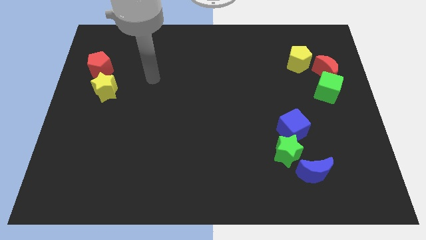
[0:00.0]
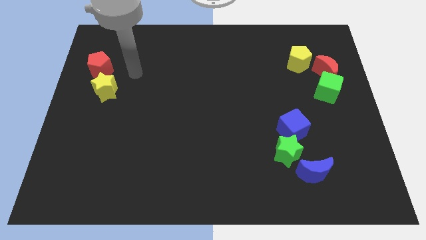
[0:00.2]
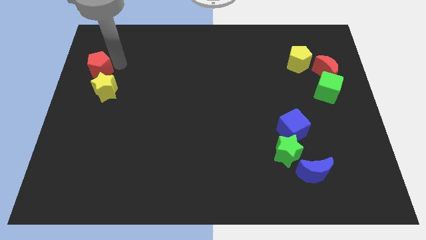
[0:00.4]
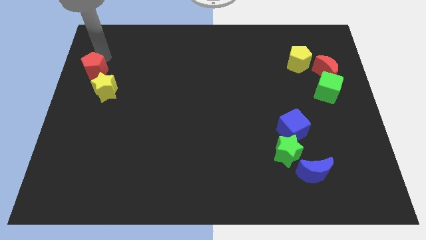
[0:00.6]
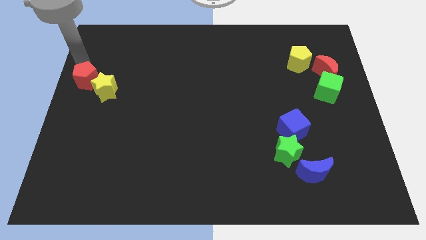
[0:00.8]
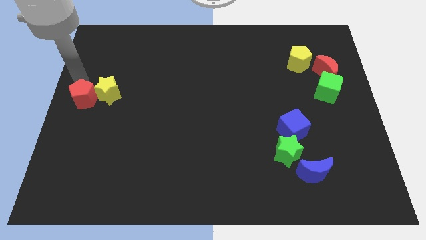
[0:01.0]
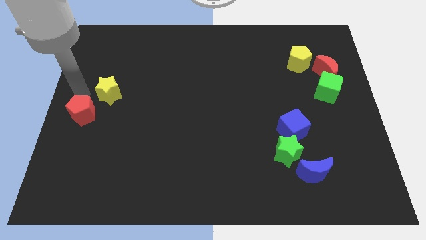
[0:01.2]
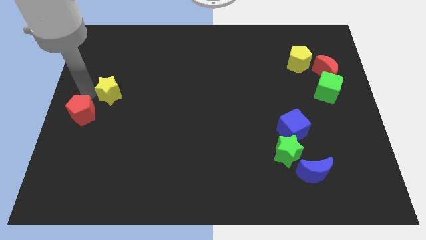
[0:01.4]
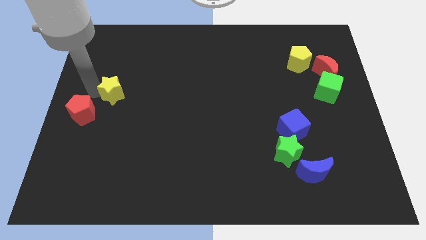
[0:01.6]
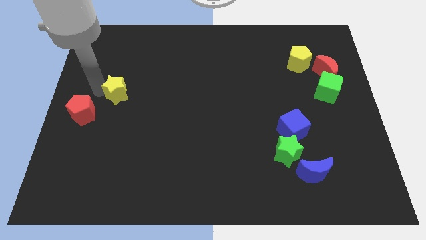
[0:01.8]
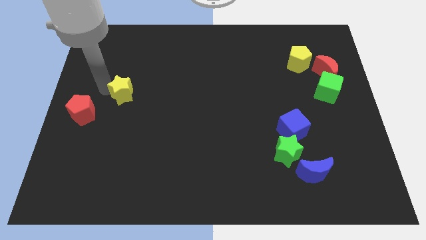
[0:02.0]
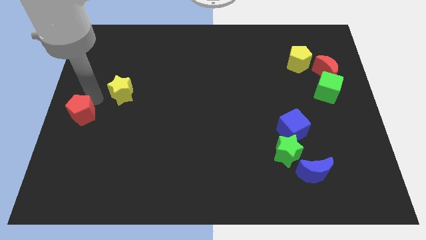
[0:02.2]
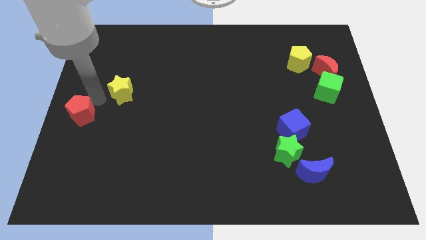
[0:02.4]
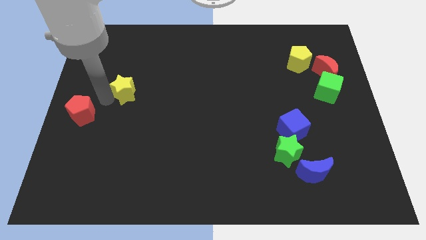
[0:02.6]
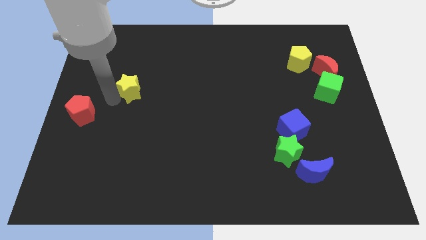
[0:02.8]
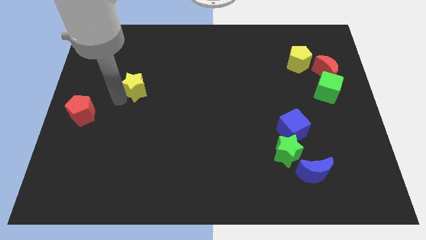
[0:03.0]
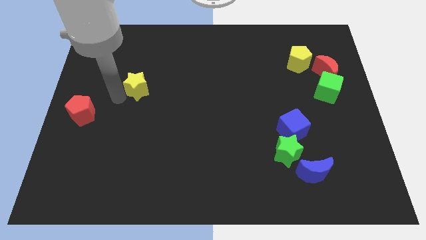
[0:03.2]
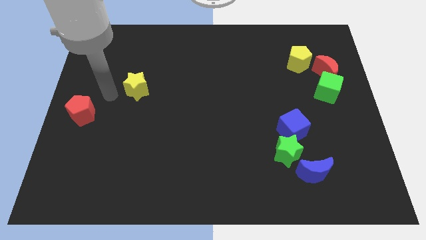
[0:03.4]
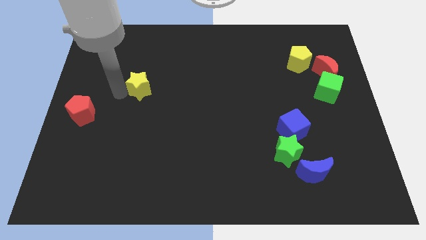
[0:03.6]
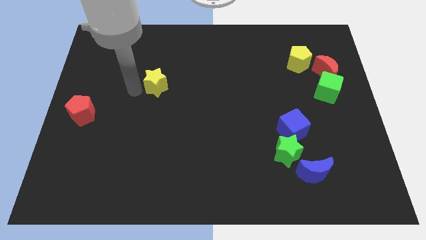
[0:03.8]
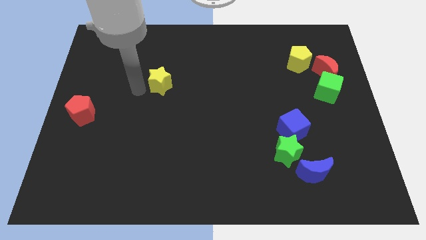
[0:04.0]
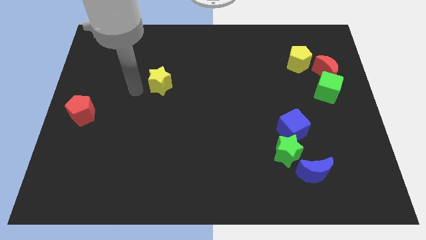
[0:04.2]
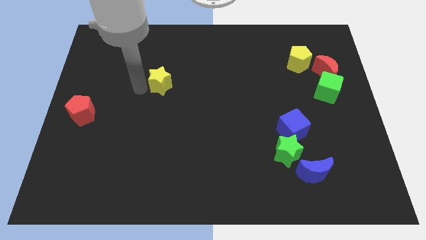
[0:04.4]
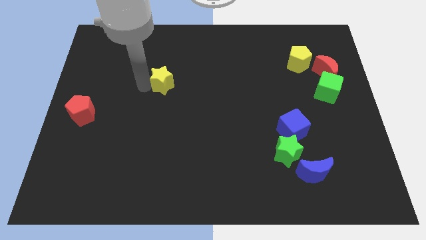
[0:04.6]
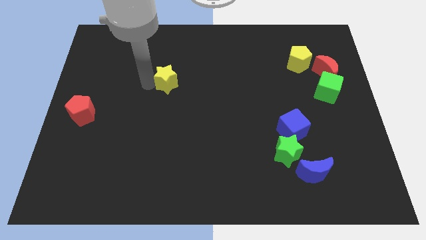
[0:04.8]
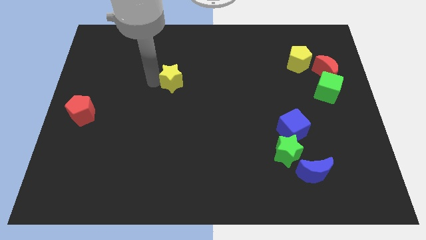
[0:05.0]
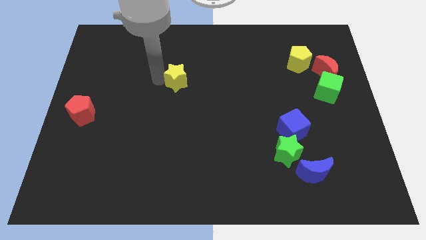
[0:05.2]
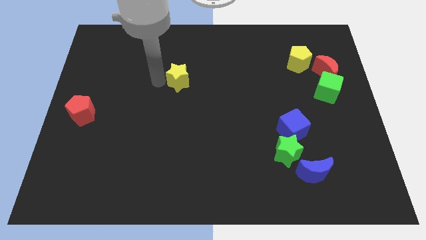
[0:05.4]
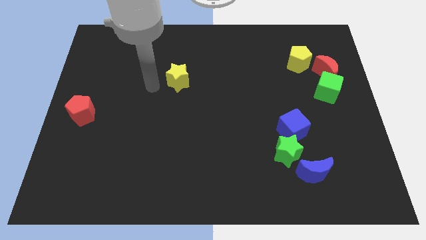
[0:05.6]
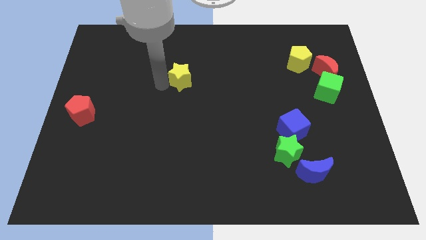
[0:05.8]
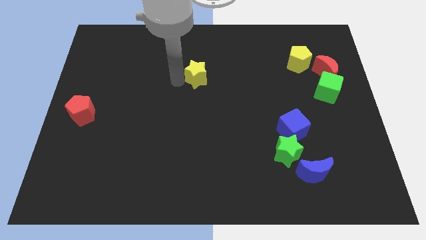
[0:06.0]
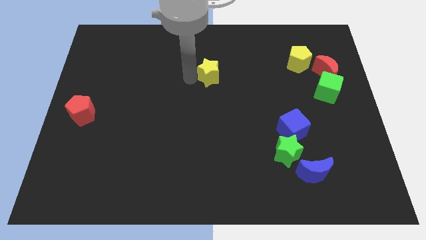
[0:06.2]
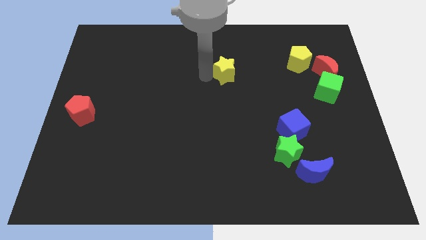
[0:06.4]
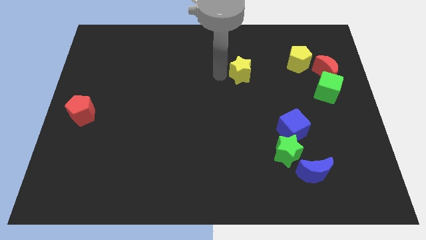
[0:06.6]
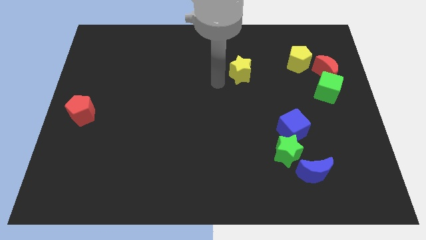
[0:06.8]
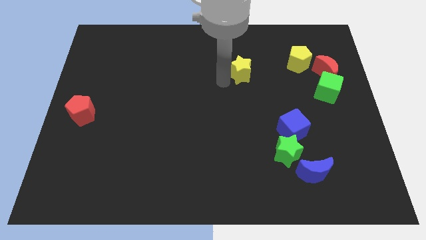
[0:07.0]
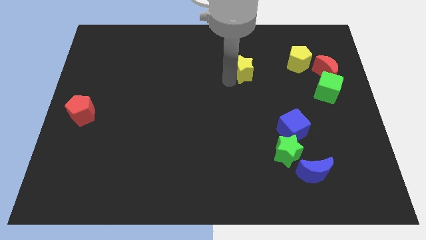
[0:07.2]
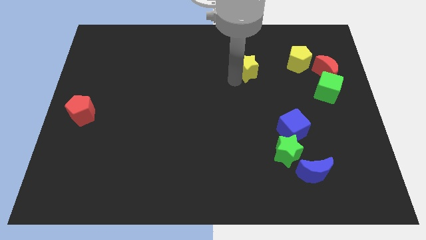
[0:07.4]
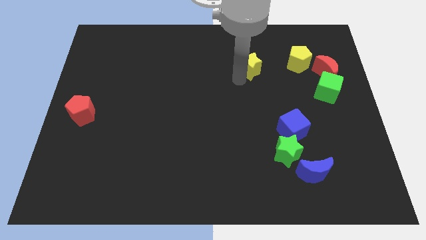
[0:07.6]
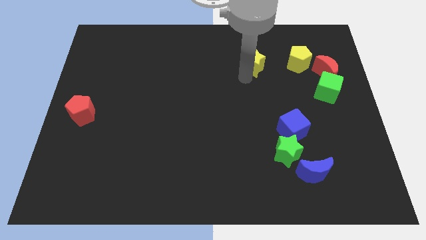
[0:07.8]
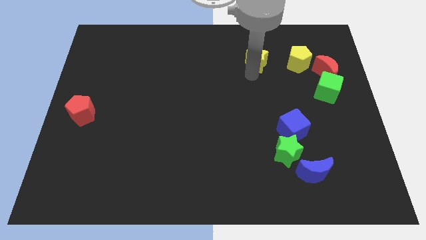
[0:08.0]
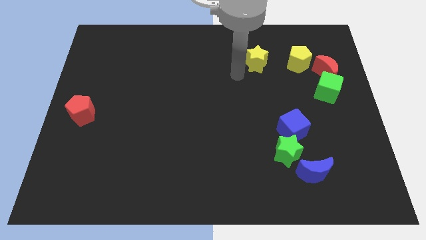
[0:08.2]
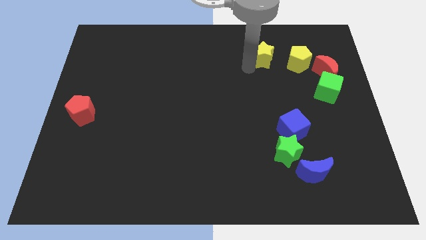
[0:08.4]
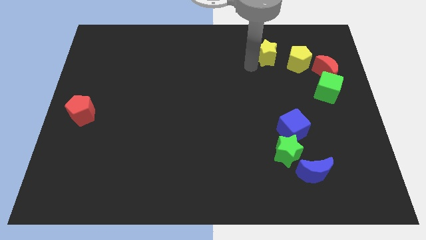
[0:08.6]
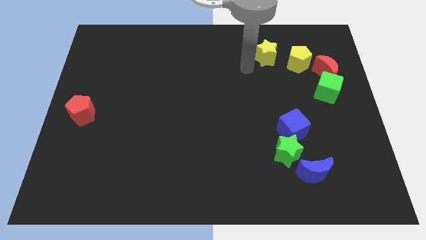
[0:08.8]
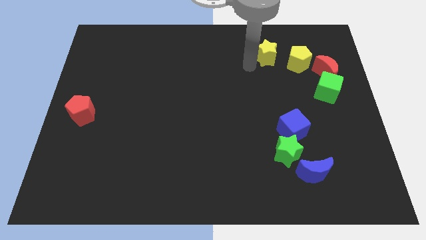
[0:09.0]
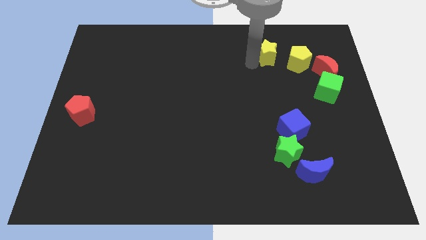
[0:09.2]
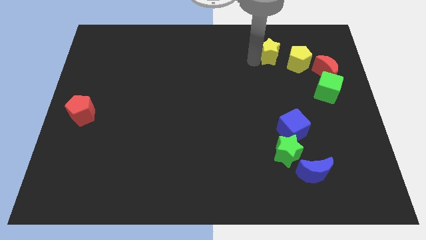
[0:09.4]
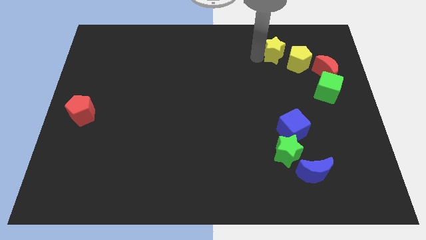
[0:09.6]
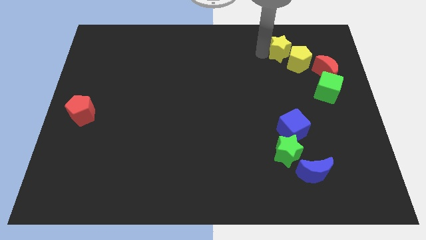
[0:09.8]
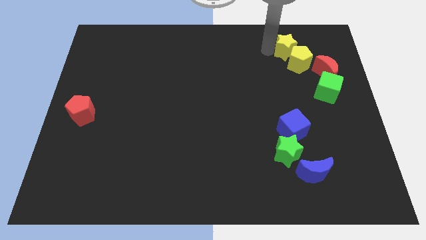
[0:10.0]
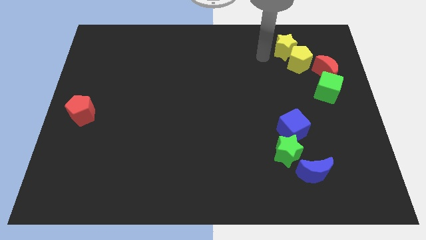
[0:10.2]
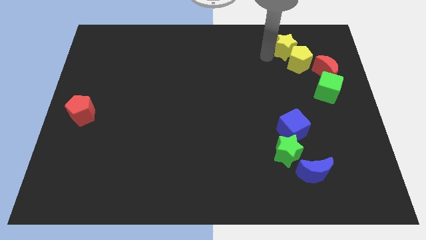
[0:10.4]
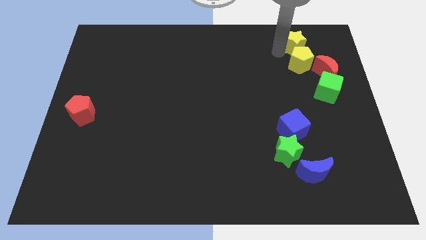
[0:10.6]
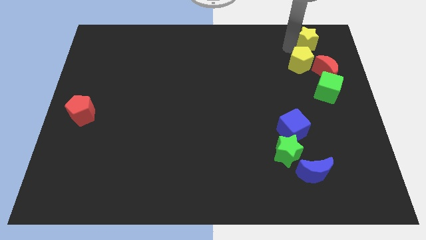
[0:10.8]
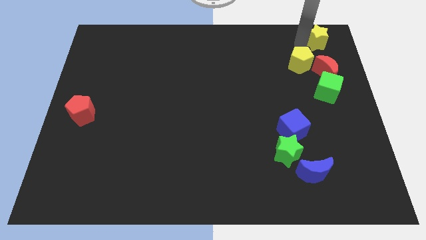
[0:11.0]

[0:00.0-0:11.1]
put the yellow star to the top right corner

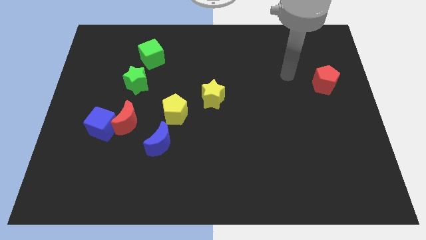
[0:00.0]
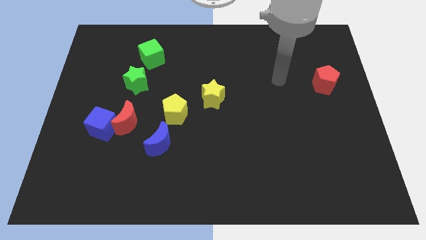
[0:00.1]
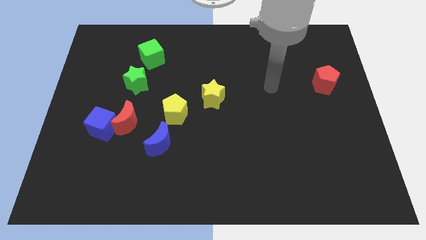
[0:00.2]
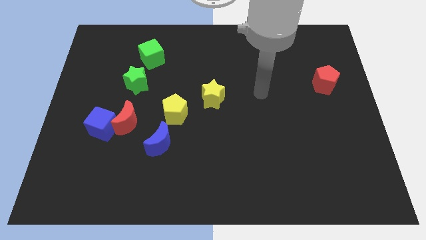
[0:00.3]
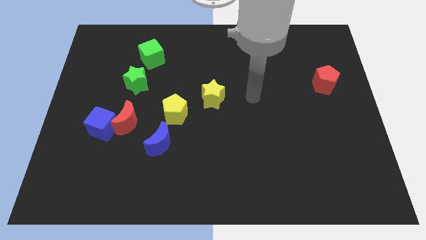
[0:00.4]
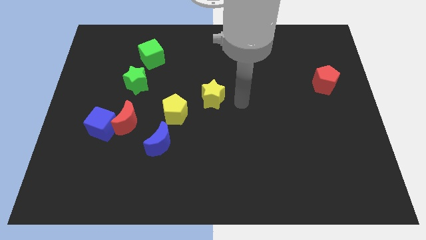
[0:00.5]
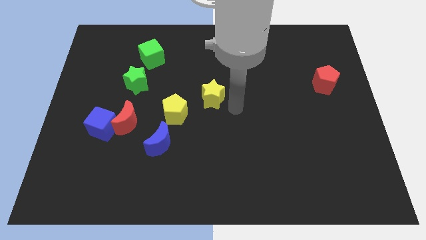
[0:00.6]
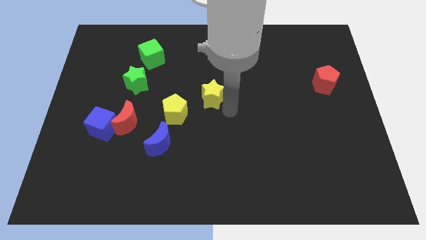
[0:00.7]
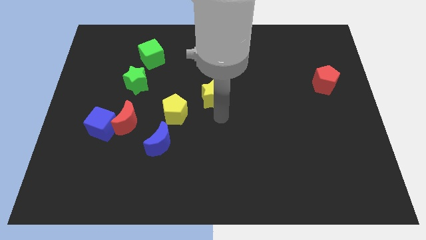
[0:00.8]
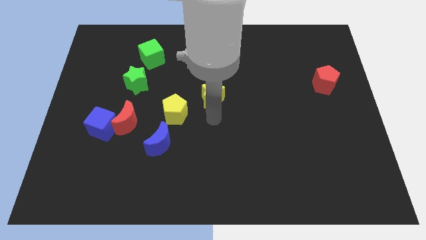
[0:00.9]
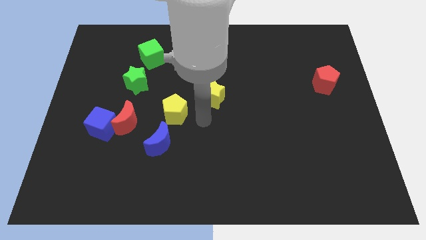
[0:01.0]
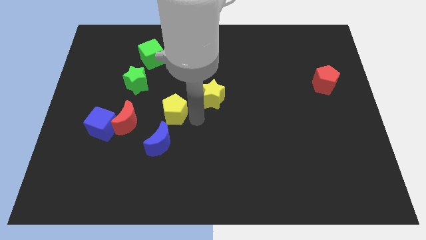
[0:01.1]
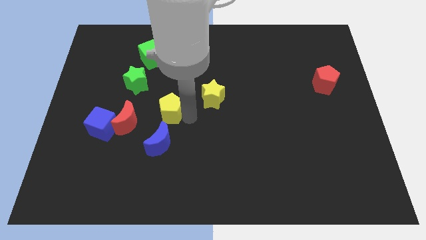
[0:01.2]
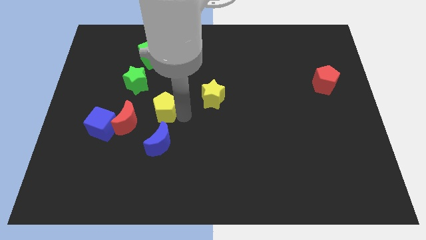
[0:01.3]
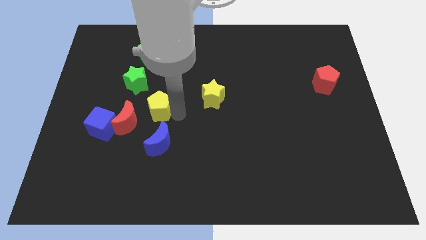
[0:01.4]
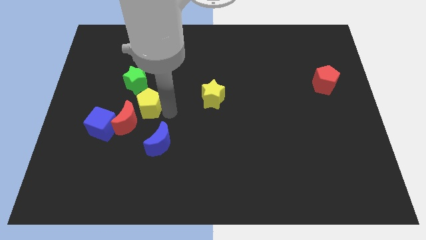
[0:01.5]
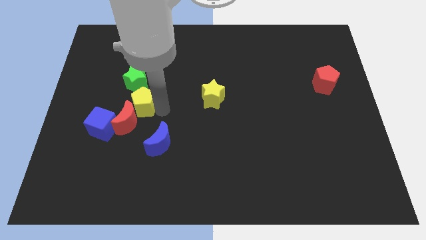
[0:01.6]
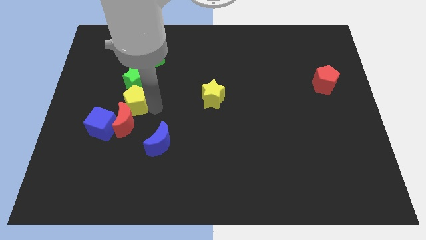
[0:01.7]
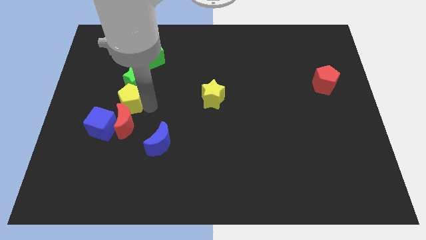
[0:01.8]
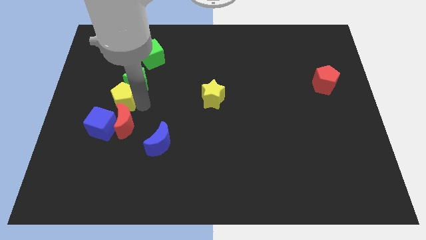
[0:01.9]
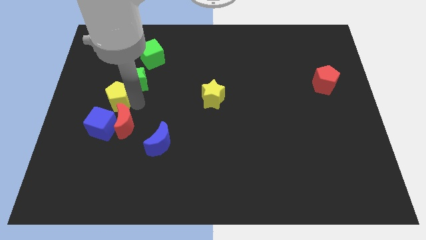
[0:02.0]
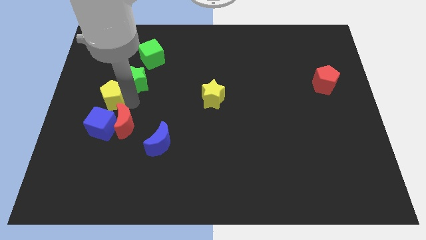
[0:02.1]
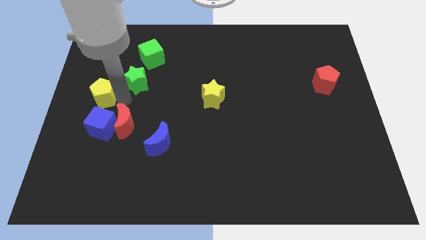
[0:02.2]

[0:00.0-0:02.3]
slide the yellow pentagon to the center left
